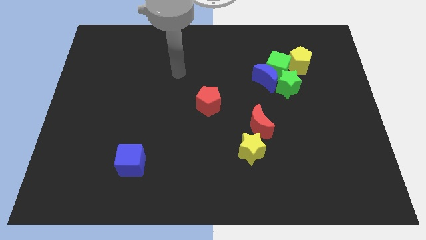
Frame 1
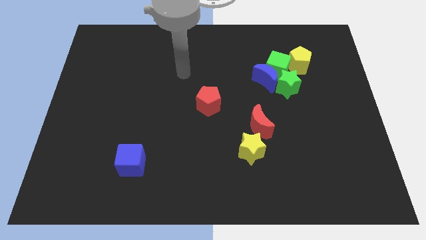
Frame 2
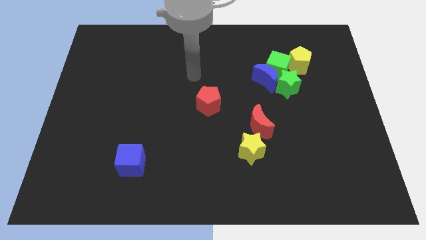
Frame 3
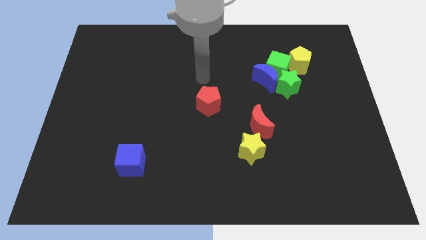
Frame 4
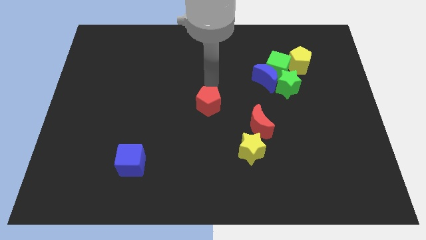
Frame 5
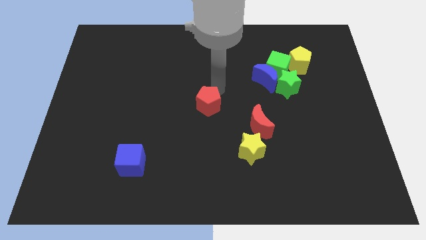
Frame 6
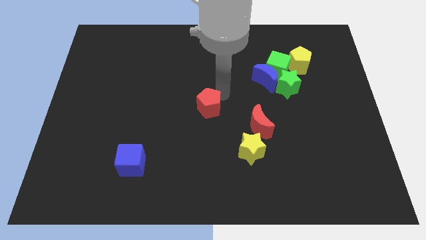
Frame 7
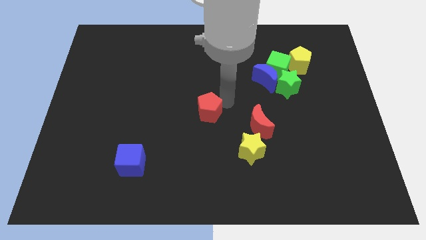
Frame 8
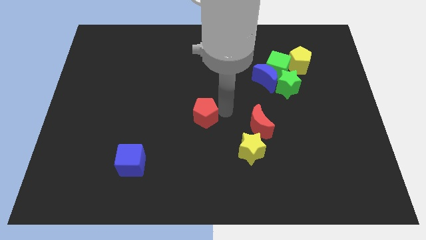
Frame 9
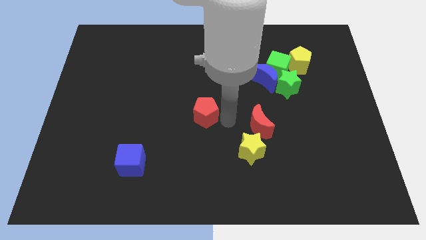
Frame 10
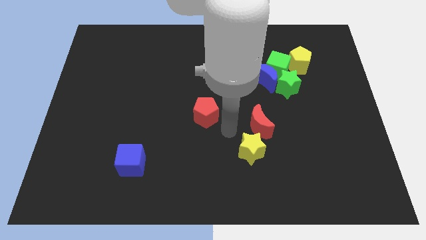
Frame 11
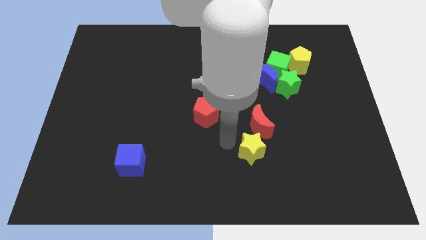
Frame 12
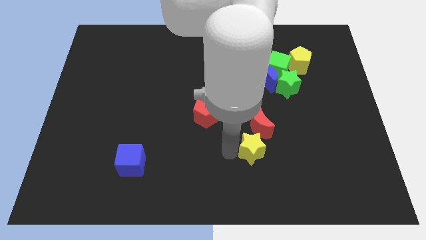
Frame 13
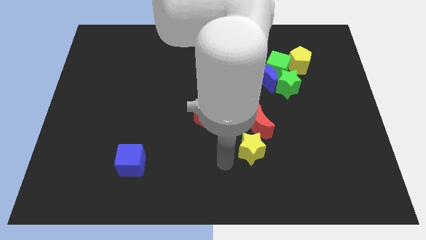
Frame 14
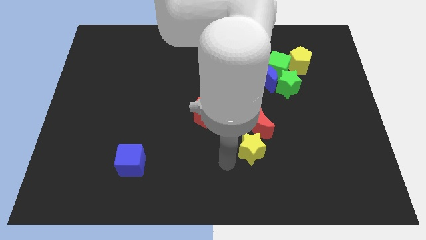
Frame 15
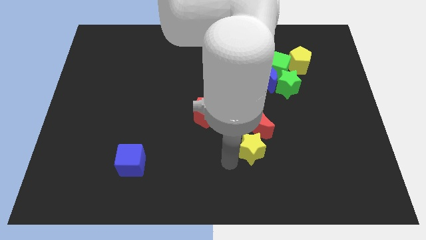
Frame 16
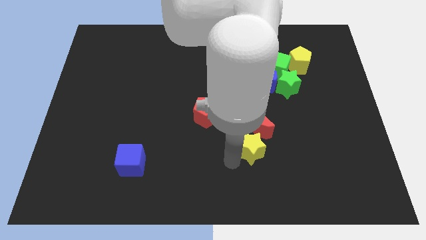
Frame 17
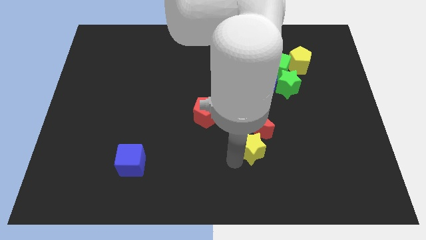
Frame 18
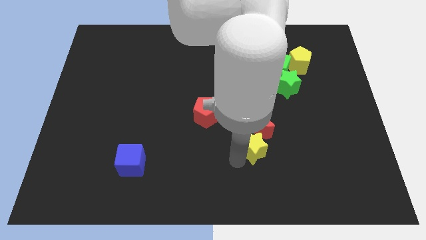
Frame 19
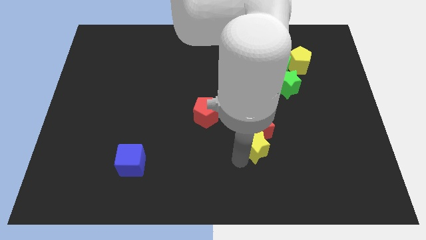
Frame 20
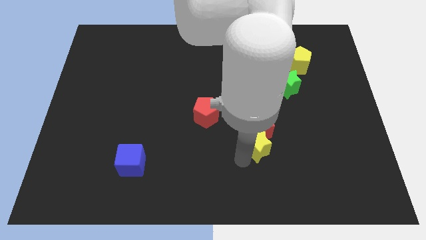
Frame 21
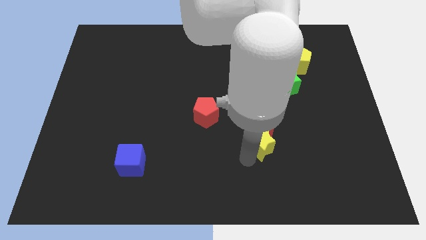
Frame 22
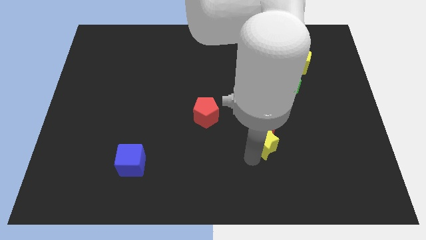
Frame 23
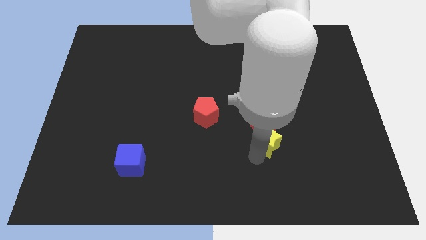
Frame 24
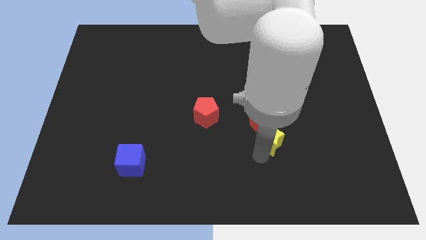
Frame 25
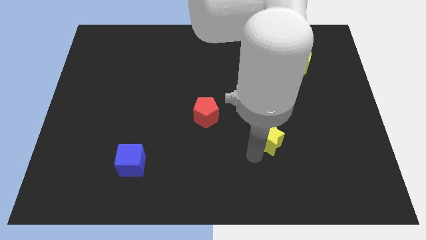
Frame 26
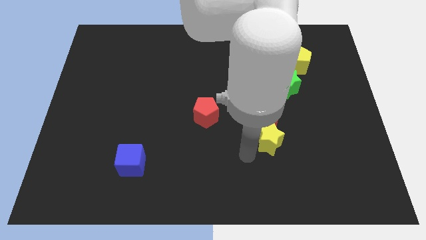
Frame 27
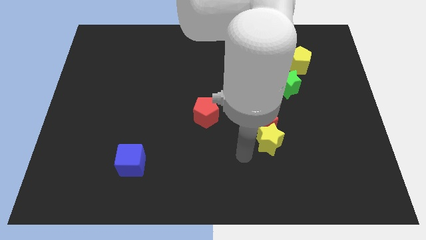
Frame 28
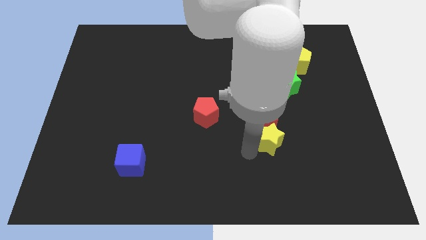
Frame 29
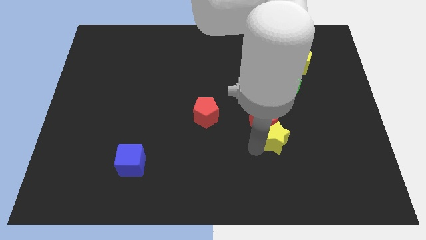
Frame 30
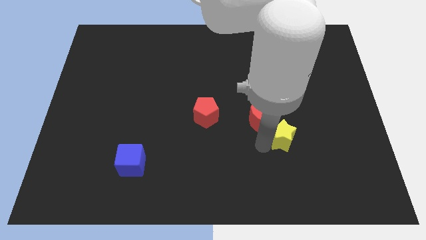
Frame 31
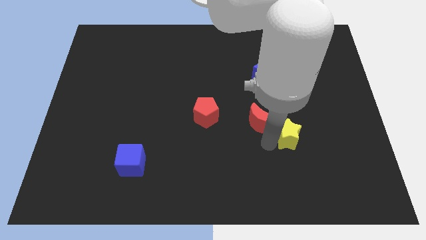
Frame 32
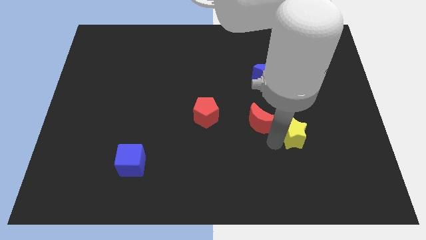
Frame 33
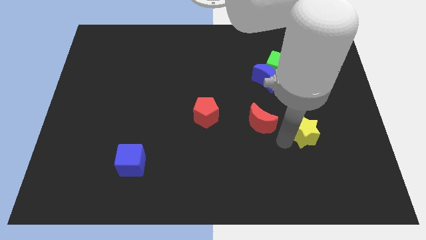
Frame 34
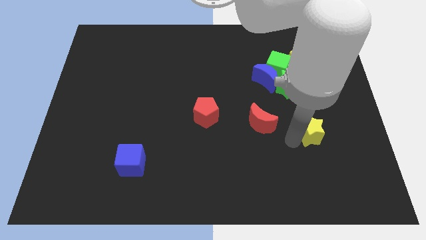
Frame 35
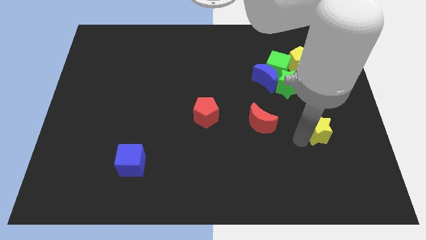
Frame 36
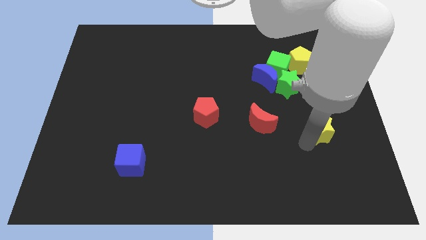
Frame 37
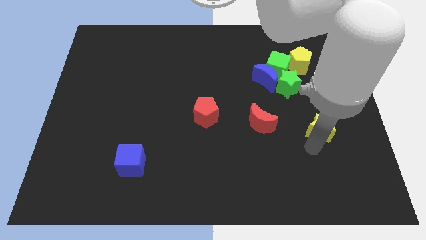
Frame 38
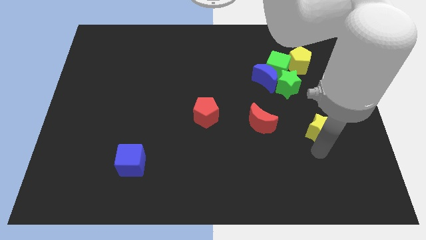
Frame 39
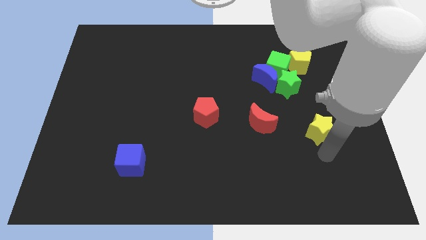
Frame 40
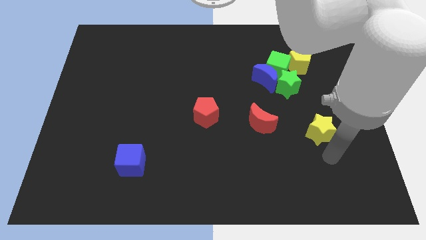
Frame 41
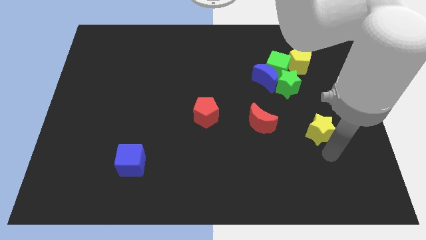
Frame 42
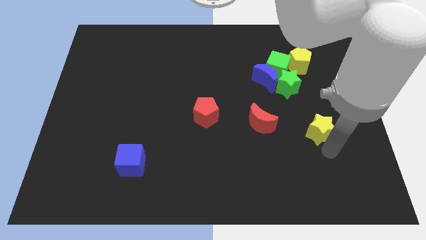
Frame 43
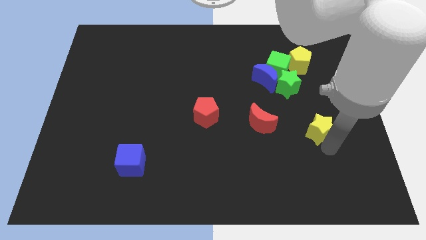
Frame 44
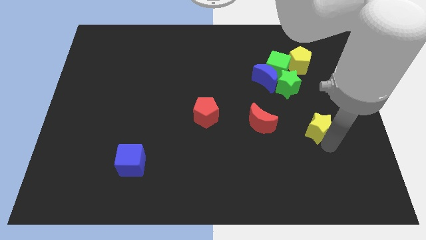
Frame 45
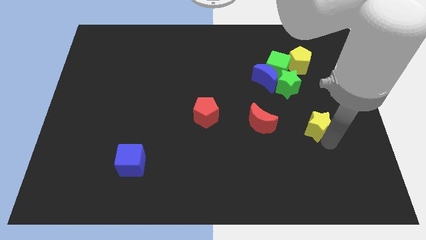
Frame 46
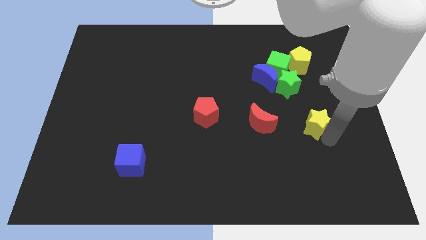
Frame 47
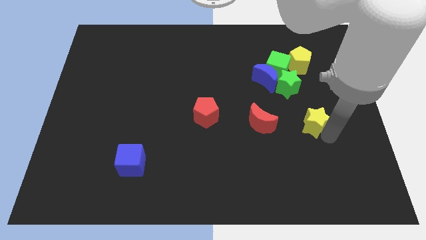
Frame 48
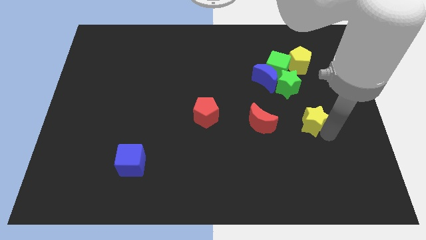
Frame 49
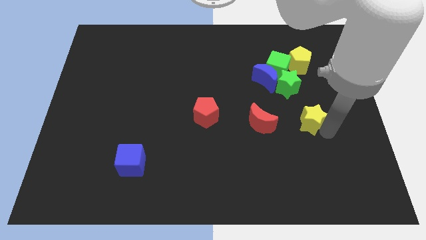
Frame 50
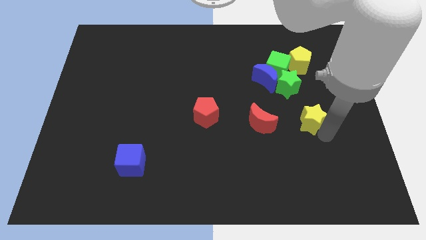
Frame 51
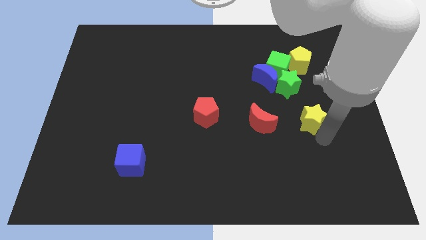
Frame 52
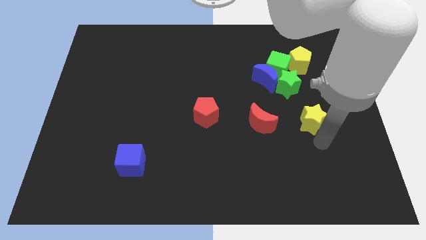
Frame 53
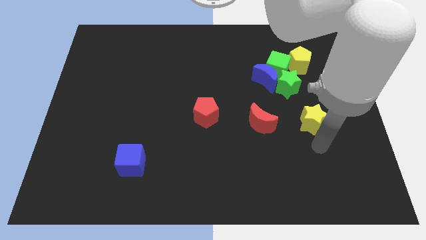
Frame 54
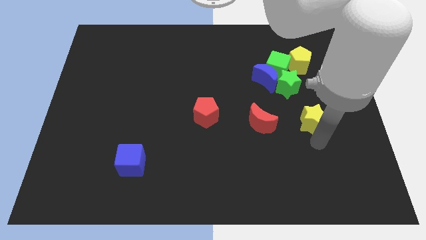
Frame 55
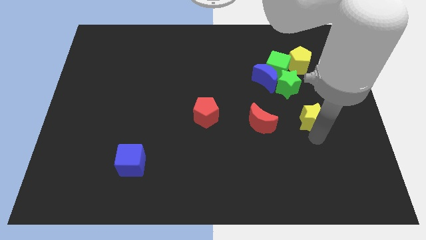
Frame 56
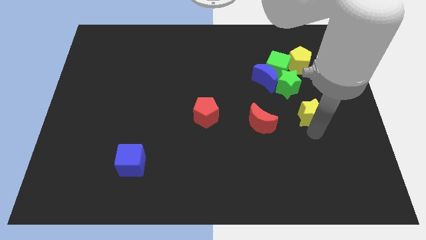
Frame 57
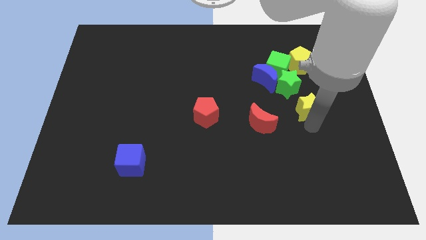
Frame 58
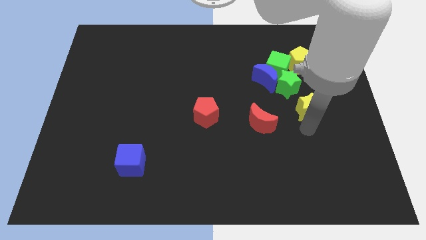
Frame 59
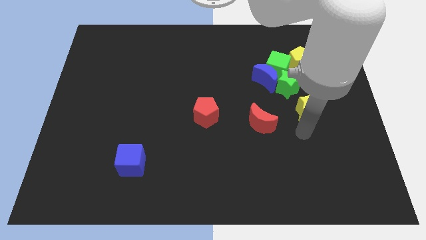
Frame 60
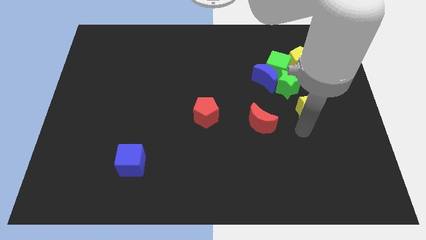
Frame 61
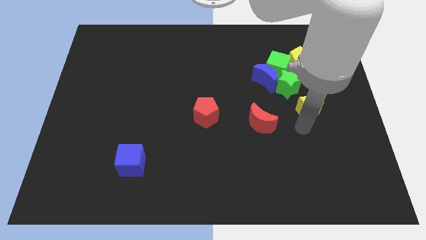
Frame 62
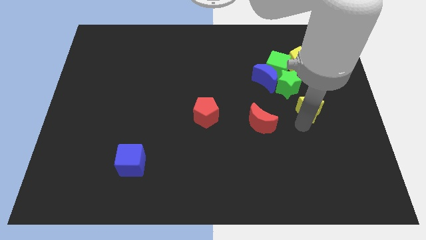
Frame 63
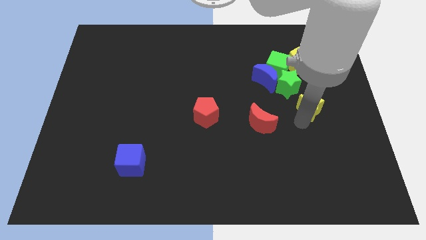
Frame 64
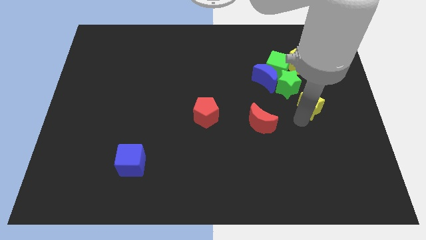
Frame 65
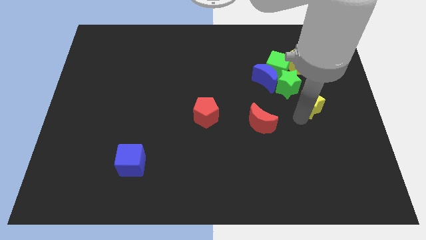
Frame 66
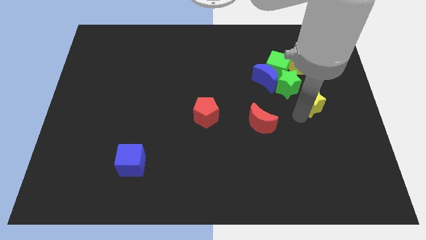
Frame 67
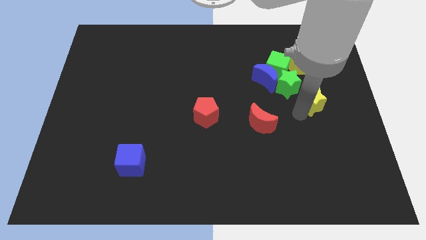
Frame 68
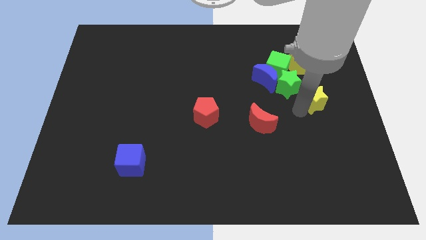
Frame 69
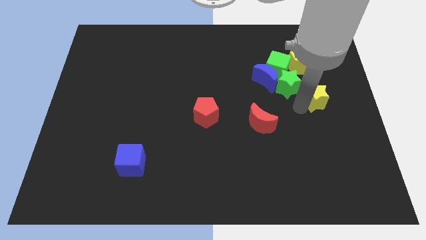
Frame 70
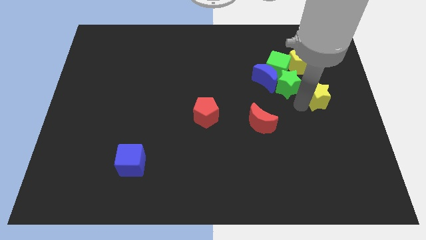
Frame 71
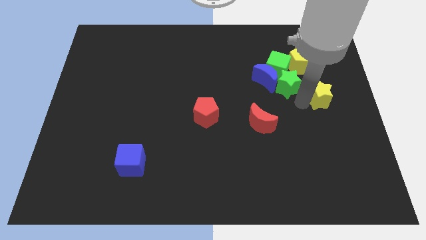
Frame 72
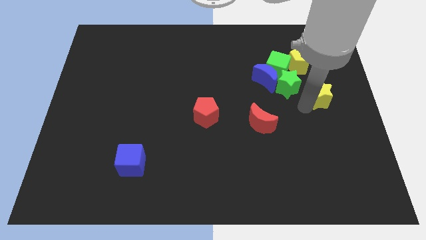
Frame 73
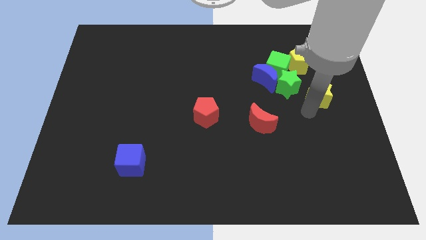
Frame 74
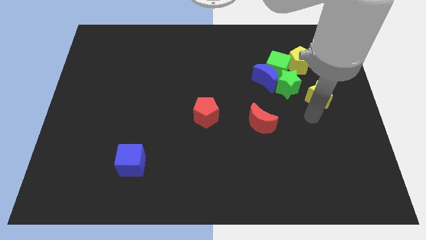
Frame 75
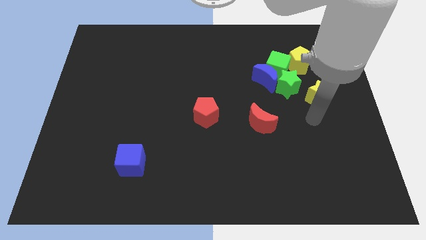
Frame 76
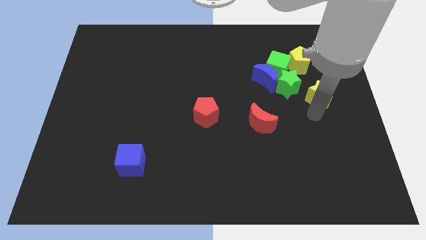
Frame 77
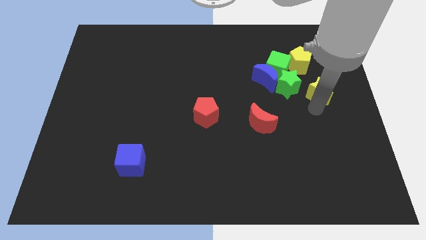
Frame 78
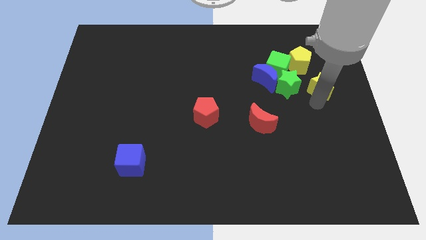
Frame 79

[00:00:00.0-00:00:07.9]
move the yellow star diagonally down and to the right of the yellow pentagon

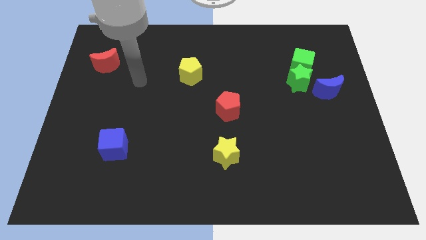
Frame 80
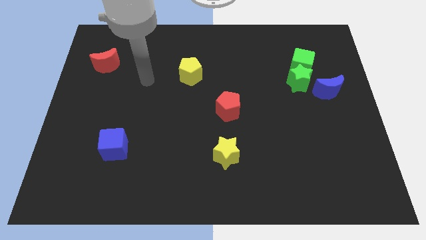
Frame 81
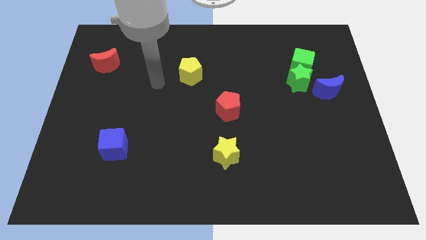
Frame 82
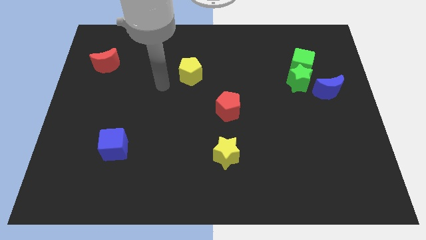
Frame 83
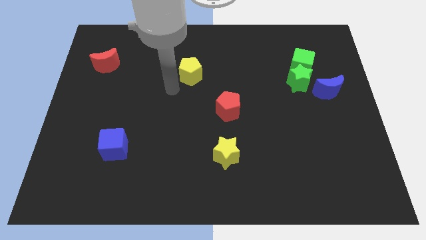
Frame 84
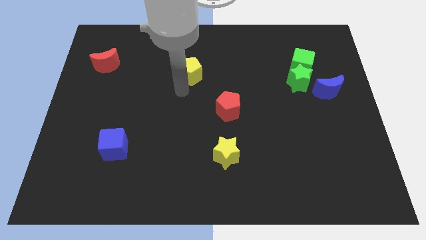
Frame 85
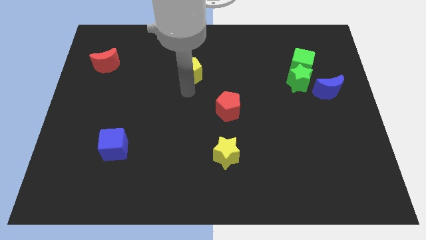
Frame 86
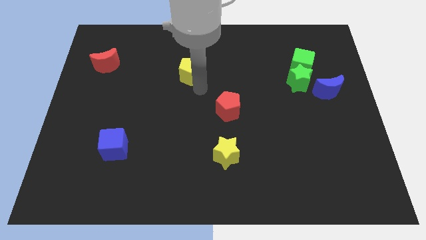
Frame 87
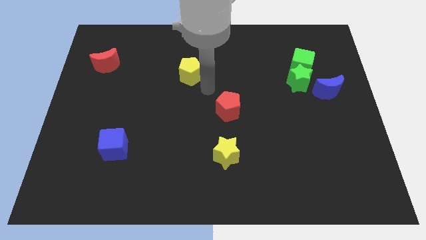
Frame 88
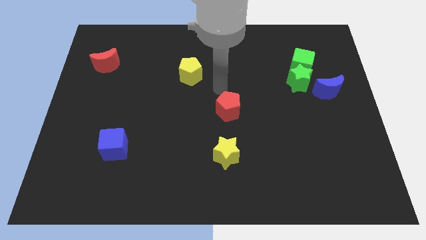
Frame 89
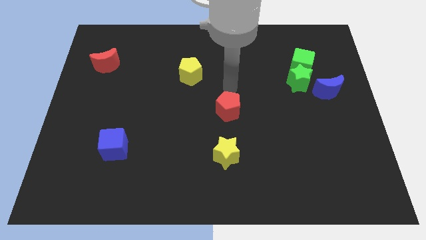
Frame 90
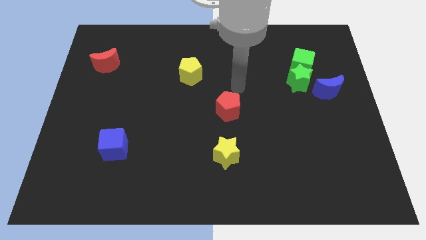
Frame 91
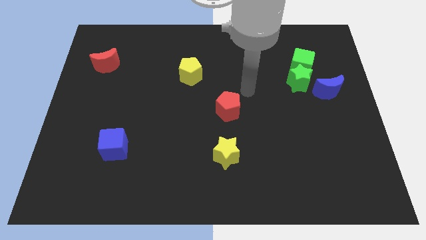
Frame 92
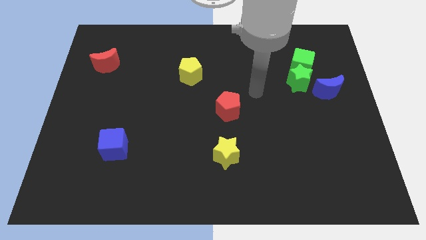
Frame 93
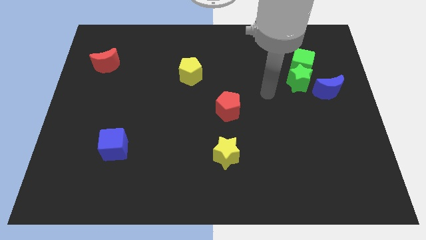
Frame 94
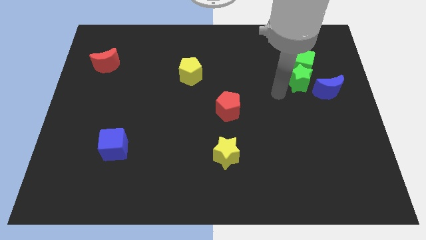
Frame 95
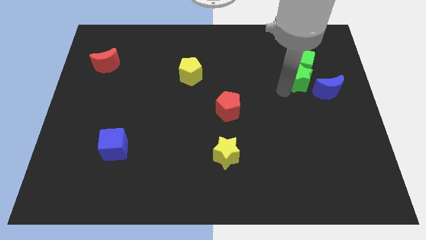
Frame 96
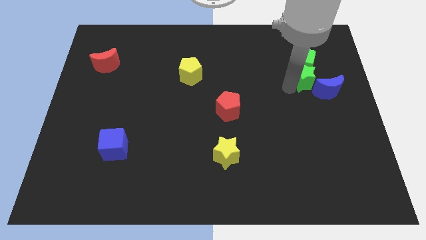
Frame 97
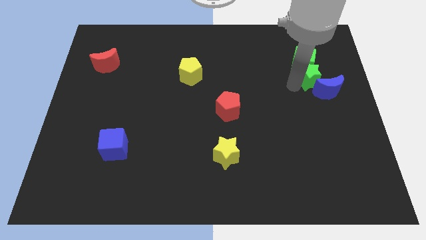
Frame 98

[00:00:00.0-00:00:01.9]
move the green star to the top of the blue moon
